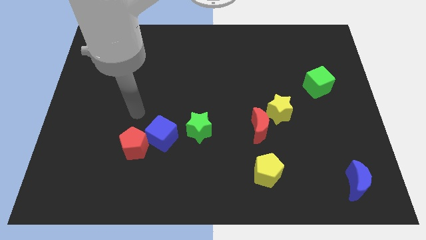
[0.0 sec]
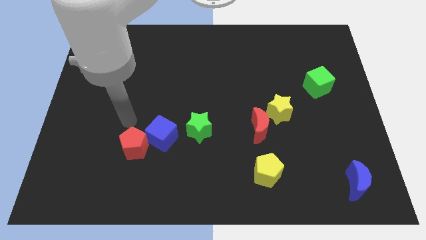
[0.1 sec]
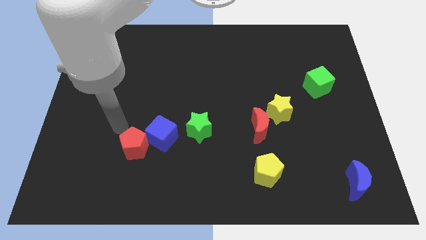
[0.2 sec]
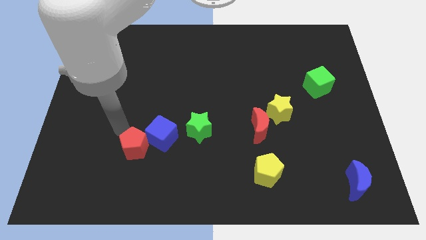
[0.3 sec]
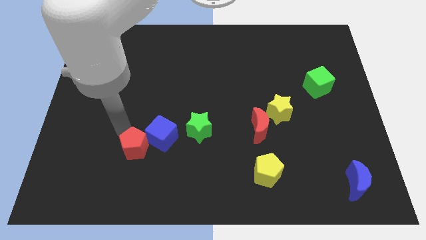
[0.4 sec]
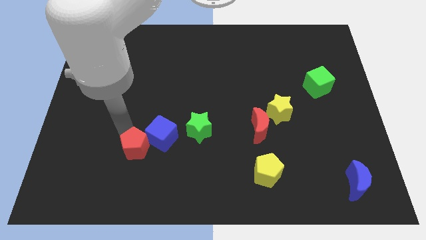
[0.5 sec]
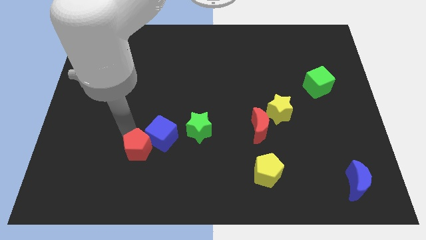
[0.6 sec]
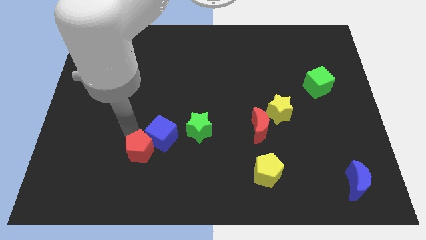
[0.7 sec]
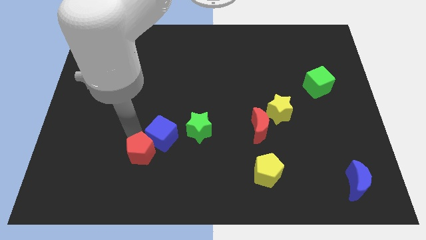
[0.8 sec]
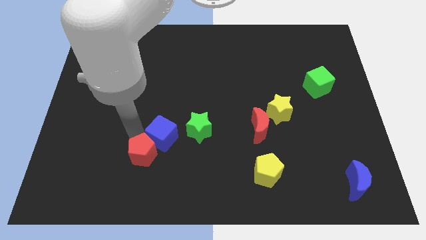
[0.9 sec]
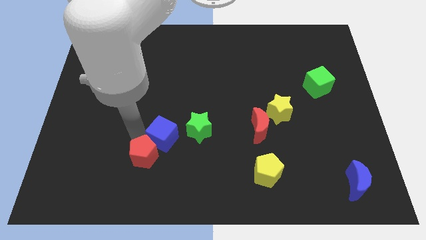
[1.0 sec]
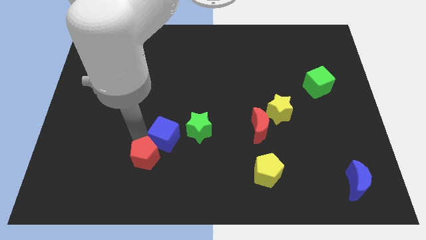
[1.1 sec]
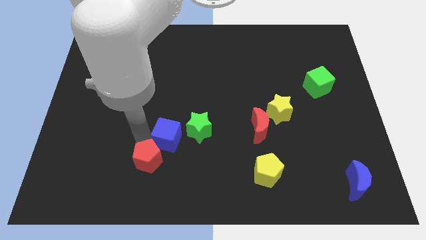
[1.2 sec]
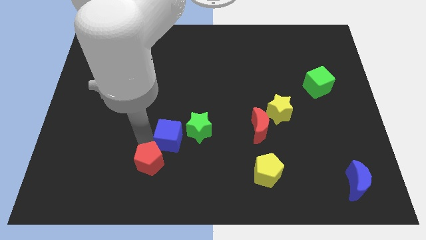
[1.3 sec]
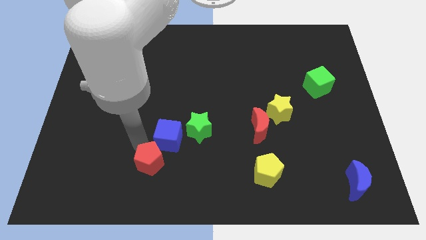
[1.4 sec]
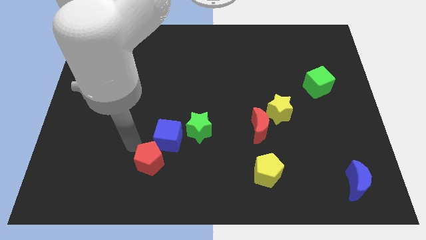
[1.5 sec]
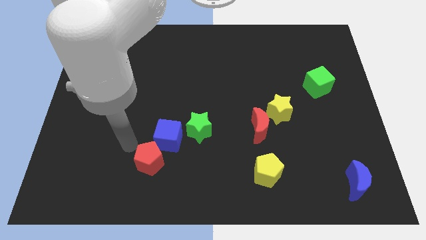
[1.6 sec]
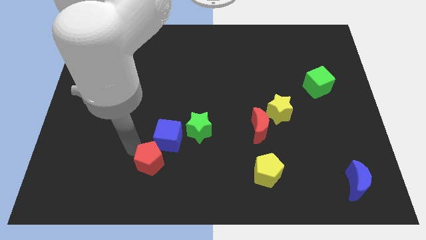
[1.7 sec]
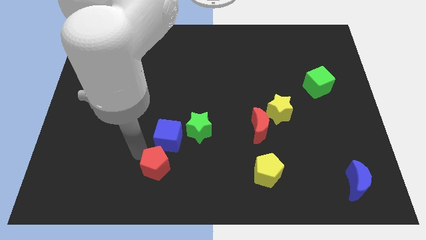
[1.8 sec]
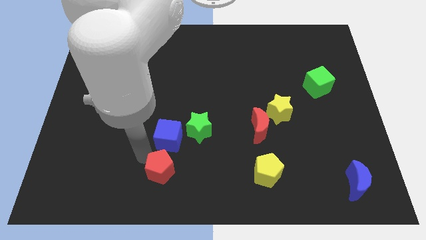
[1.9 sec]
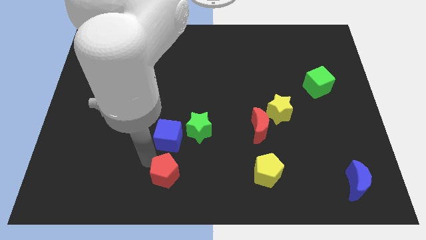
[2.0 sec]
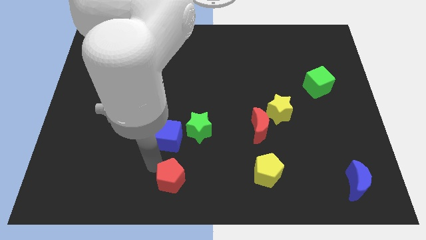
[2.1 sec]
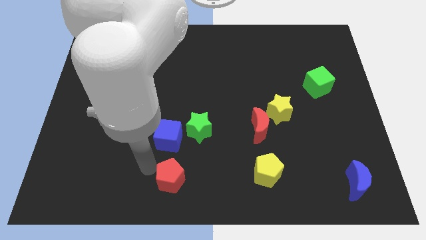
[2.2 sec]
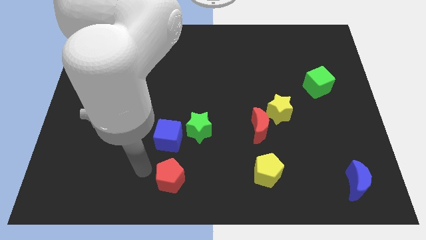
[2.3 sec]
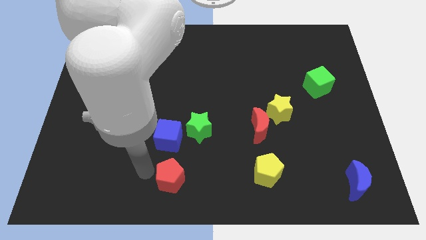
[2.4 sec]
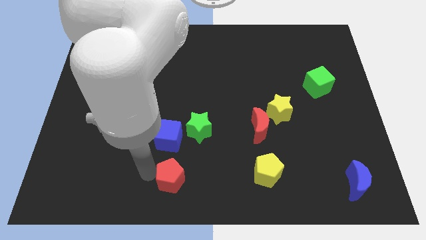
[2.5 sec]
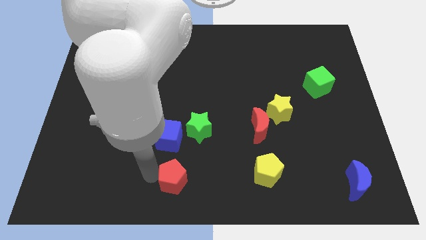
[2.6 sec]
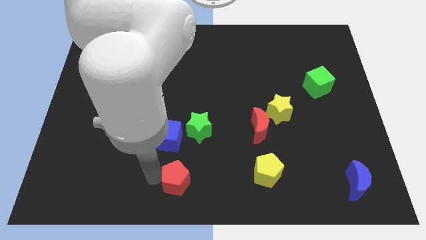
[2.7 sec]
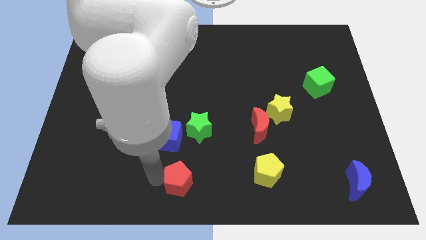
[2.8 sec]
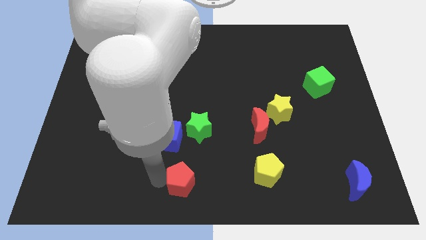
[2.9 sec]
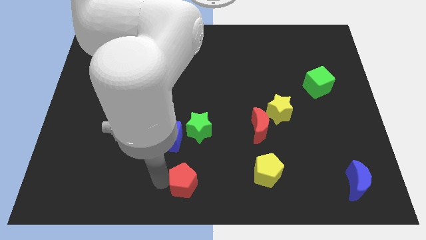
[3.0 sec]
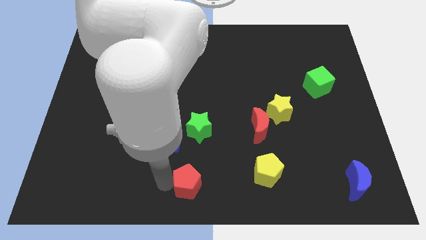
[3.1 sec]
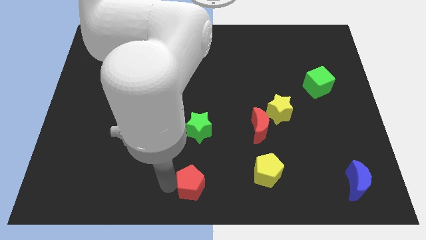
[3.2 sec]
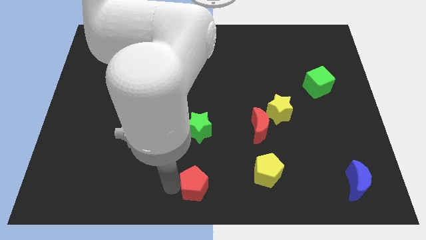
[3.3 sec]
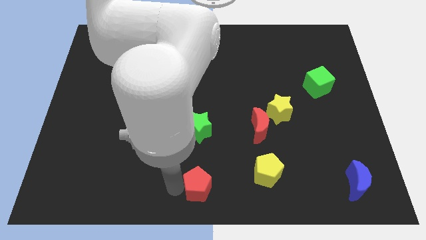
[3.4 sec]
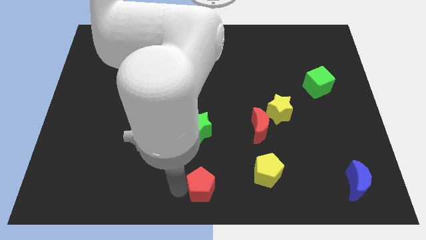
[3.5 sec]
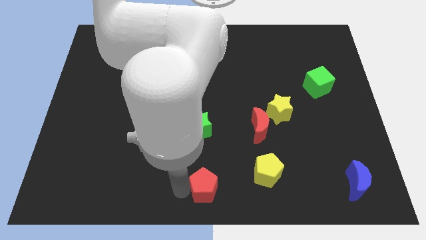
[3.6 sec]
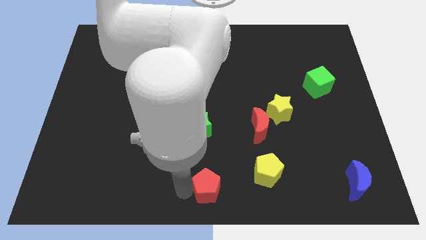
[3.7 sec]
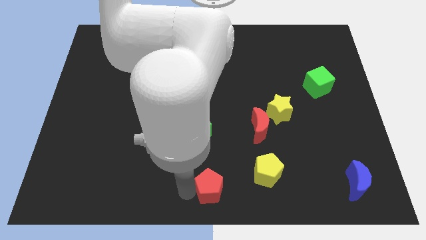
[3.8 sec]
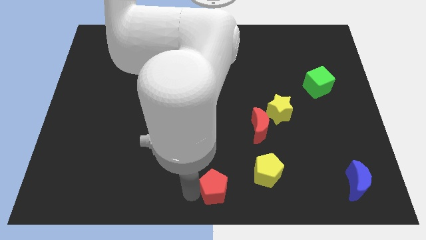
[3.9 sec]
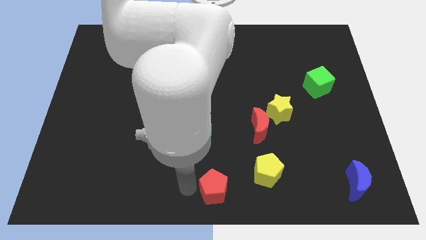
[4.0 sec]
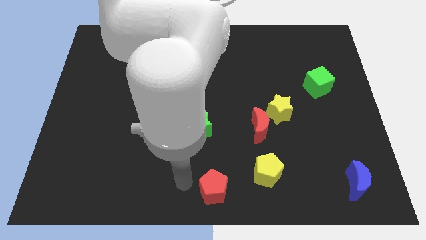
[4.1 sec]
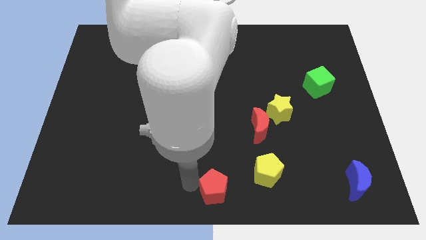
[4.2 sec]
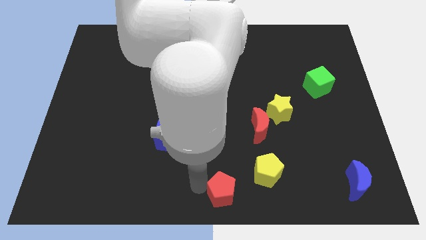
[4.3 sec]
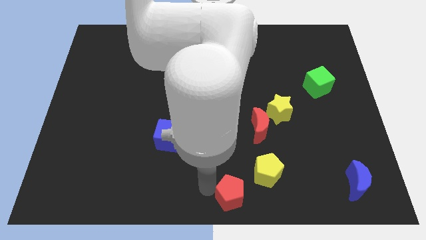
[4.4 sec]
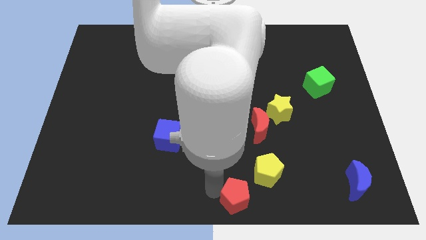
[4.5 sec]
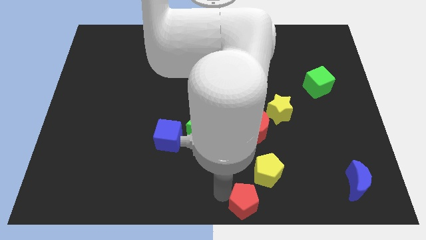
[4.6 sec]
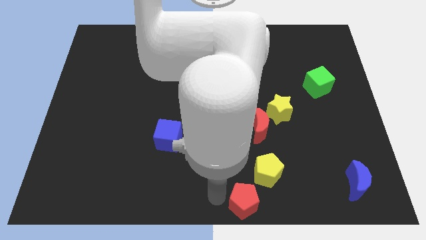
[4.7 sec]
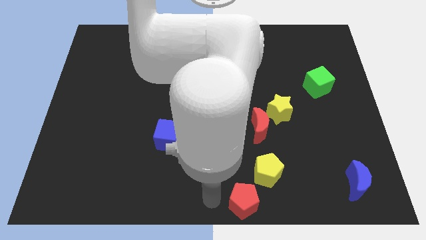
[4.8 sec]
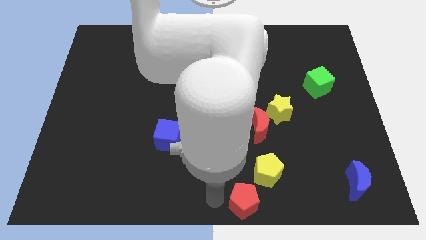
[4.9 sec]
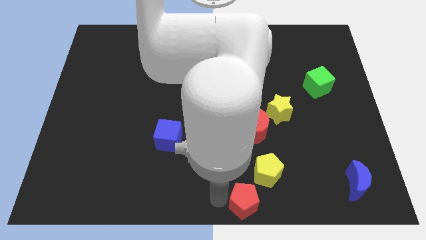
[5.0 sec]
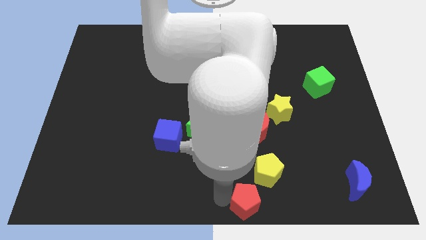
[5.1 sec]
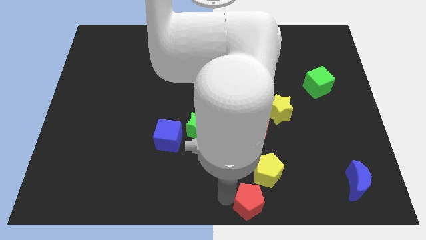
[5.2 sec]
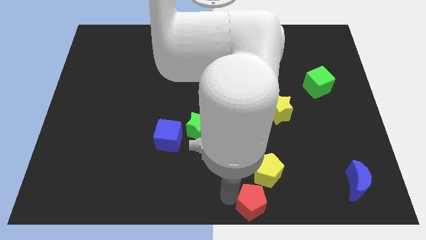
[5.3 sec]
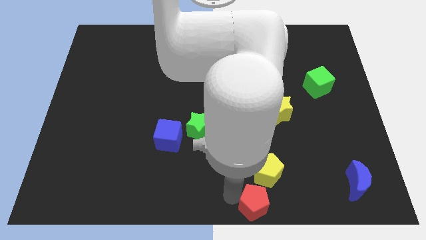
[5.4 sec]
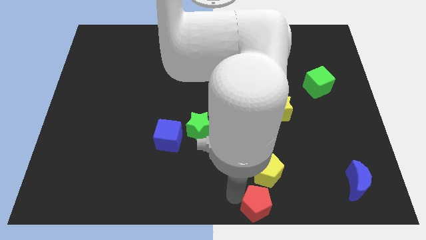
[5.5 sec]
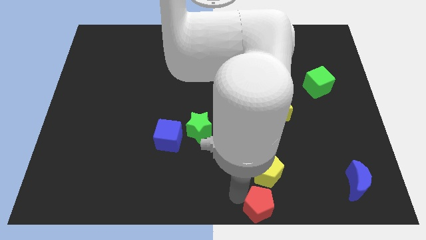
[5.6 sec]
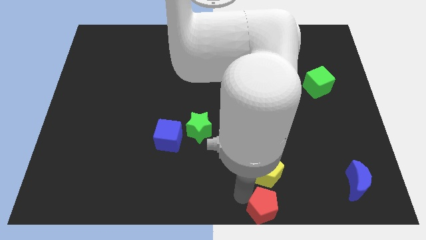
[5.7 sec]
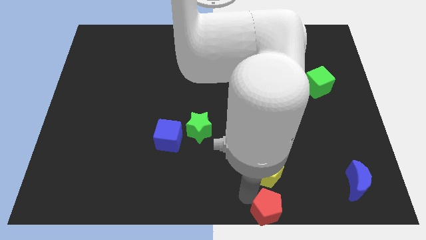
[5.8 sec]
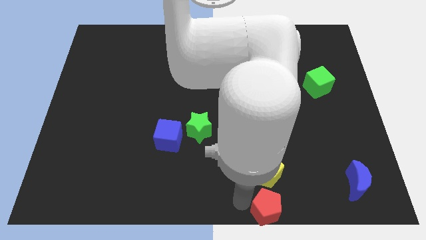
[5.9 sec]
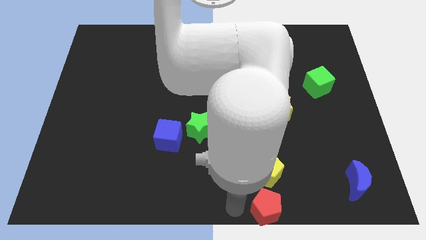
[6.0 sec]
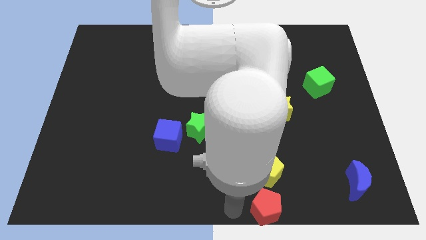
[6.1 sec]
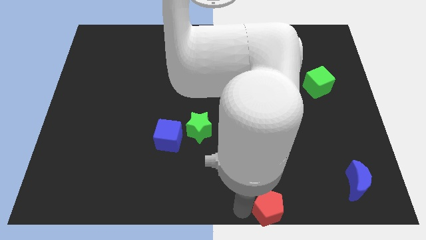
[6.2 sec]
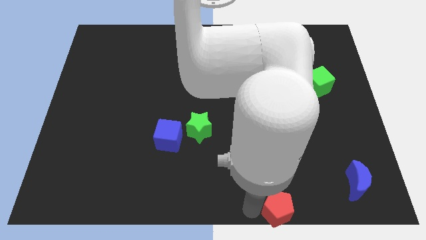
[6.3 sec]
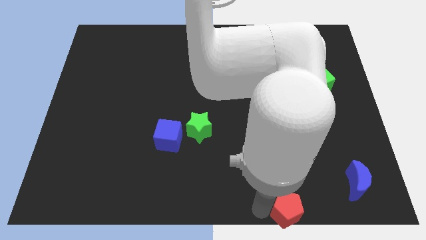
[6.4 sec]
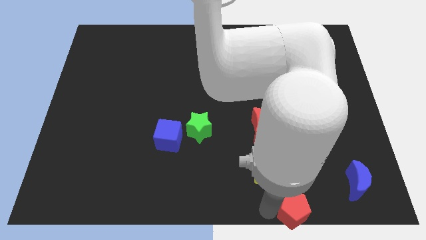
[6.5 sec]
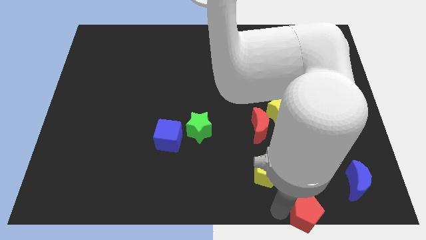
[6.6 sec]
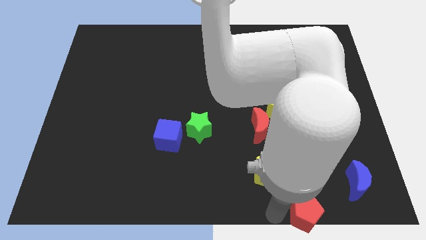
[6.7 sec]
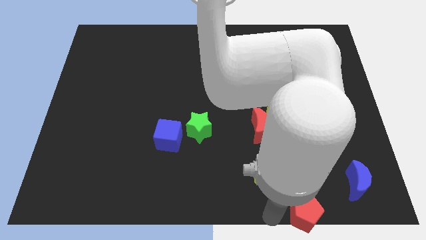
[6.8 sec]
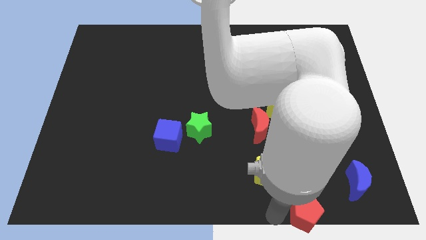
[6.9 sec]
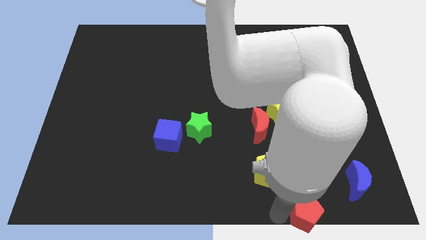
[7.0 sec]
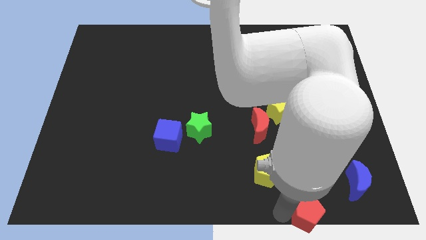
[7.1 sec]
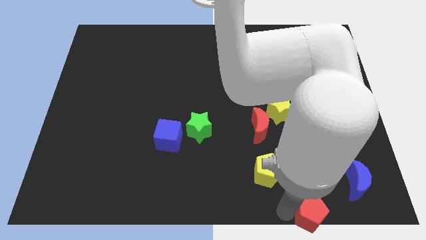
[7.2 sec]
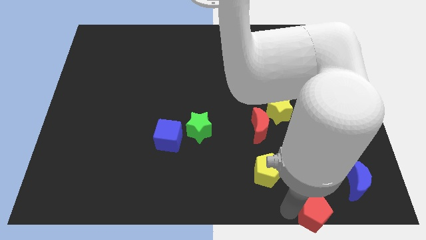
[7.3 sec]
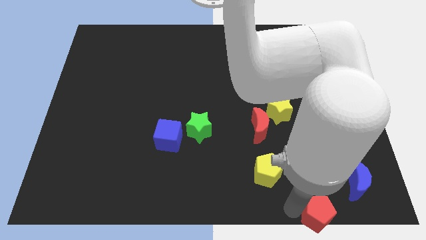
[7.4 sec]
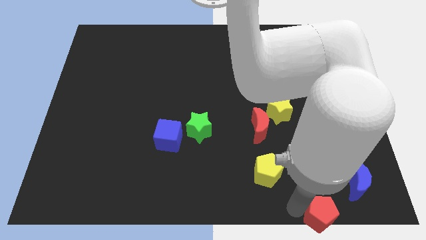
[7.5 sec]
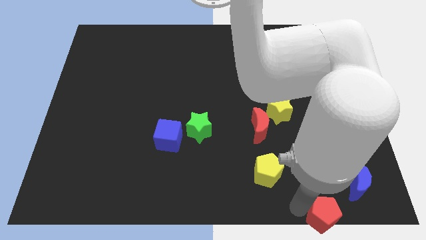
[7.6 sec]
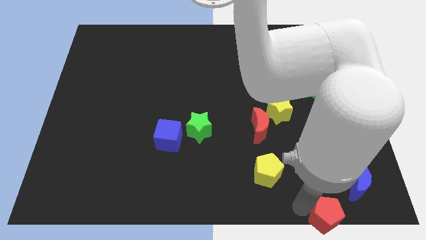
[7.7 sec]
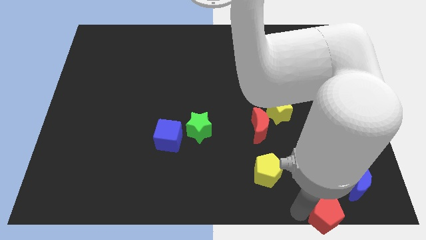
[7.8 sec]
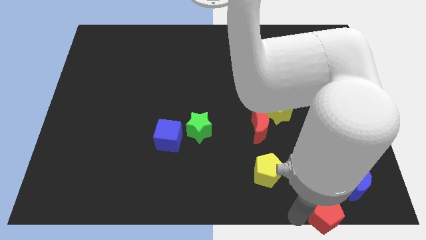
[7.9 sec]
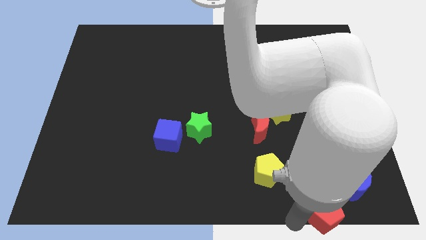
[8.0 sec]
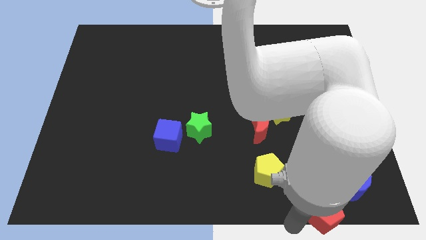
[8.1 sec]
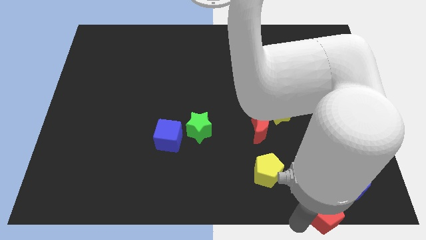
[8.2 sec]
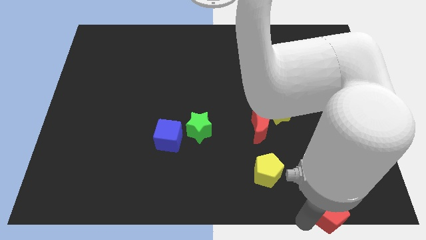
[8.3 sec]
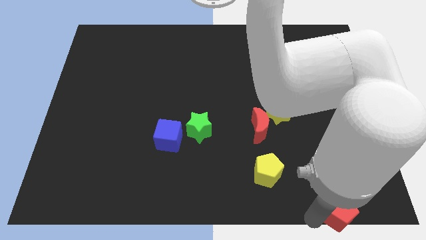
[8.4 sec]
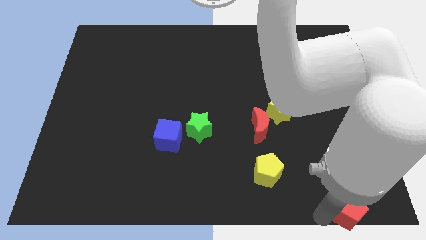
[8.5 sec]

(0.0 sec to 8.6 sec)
slide the red pentagon to the bottom right corner
